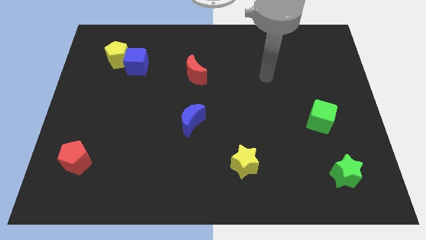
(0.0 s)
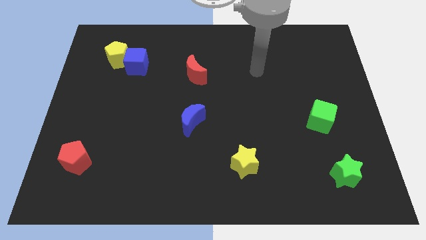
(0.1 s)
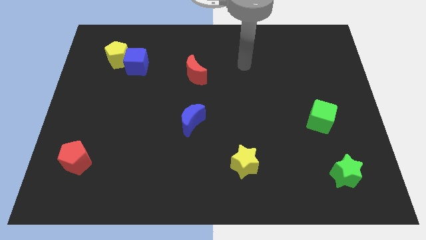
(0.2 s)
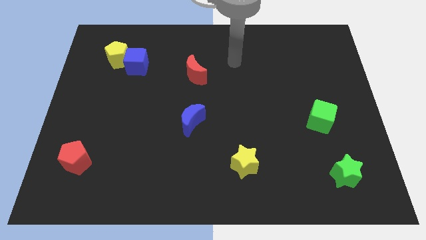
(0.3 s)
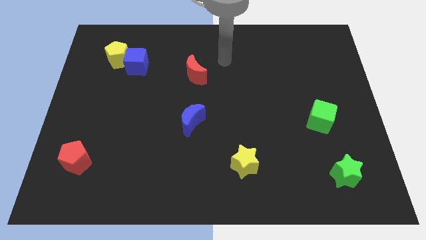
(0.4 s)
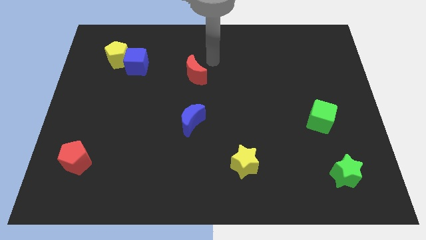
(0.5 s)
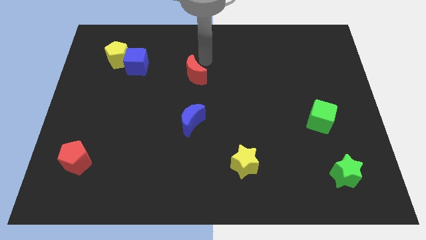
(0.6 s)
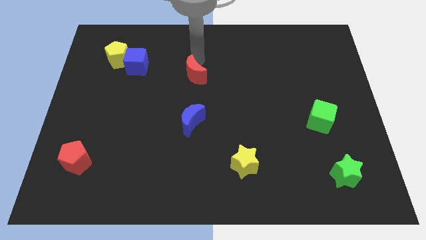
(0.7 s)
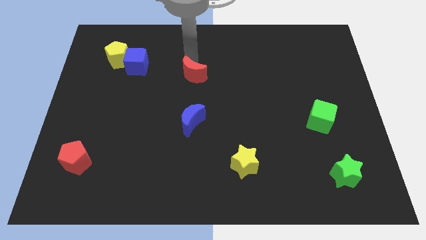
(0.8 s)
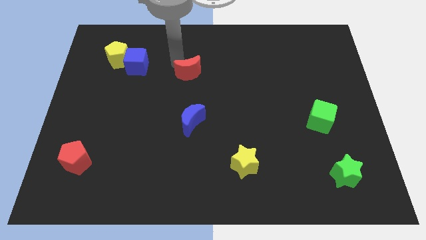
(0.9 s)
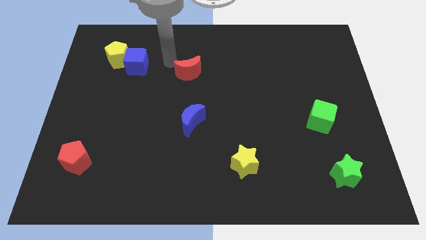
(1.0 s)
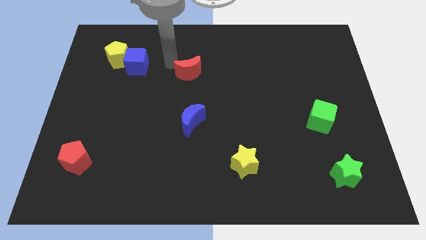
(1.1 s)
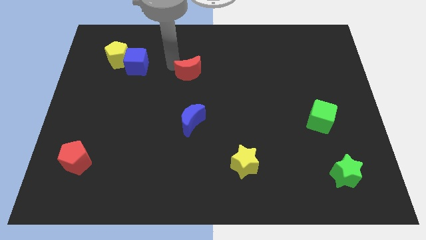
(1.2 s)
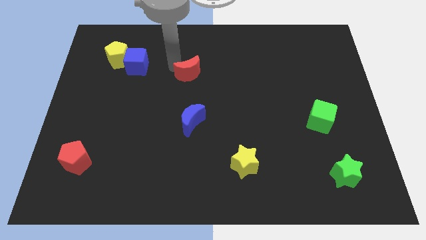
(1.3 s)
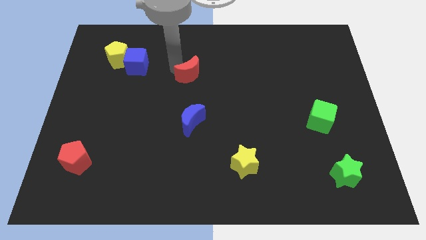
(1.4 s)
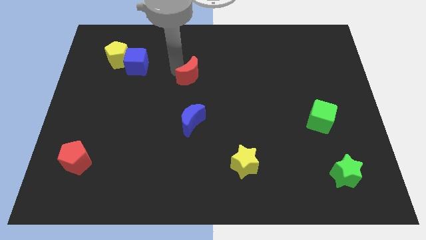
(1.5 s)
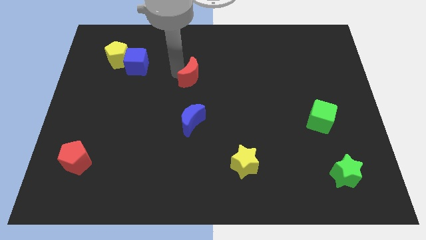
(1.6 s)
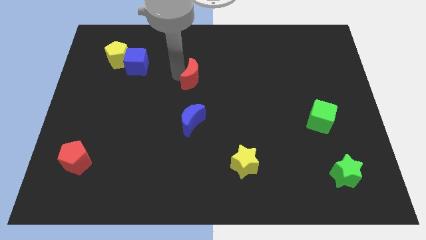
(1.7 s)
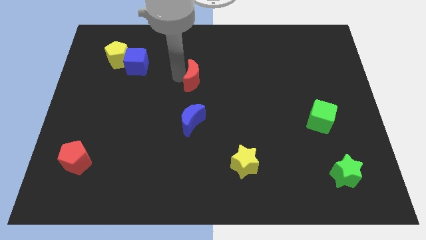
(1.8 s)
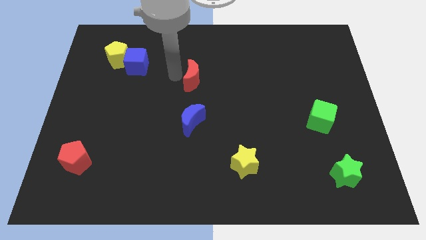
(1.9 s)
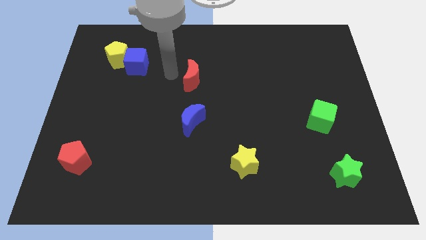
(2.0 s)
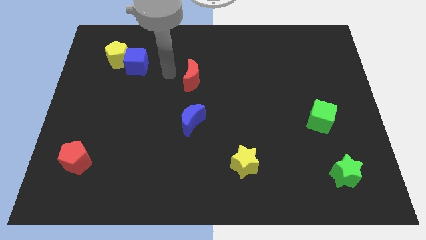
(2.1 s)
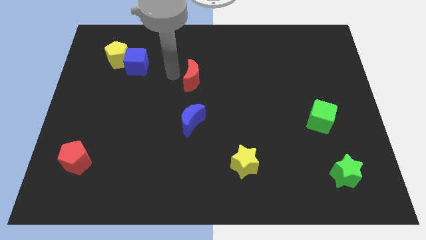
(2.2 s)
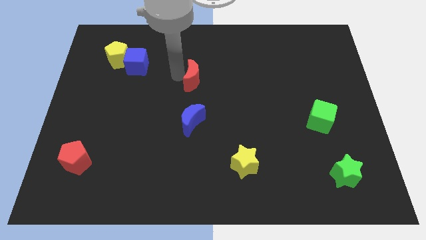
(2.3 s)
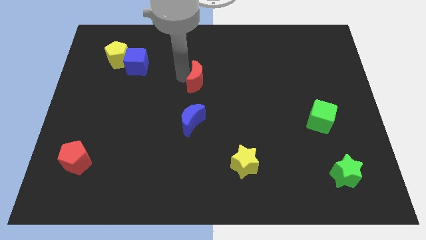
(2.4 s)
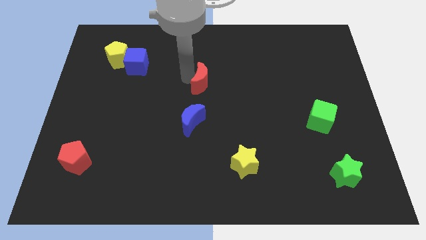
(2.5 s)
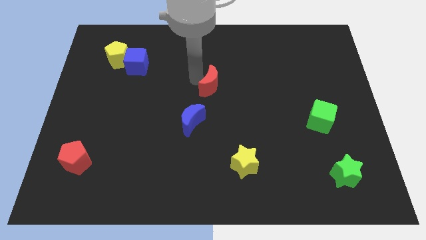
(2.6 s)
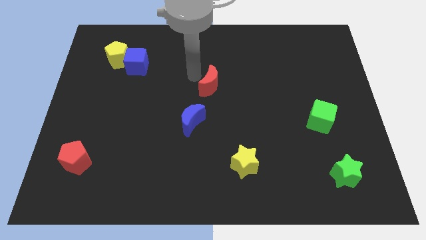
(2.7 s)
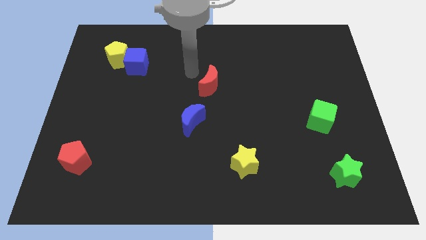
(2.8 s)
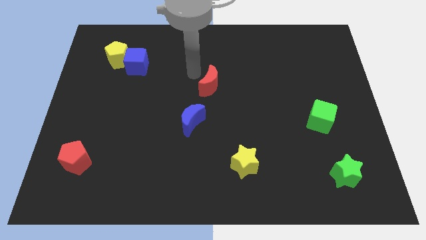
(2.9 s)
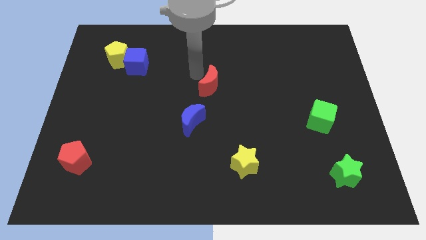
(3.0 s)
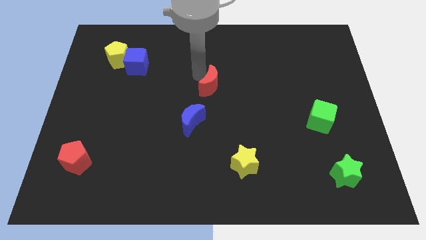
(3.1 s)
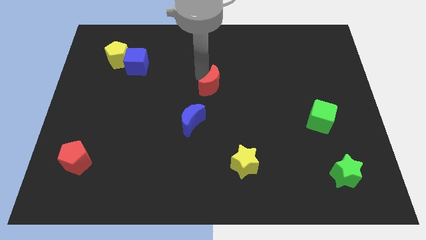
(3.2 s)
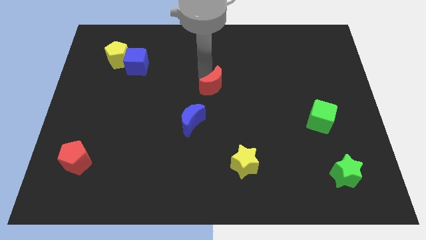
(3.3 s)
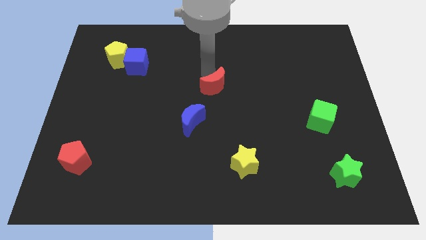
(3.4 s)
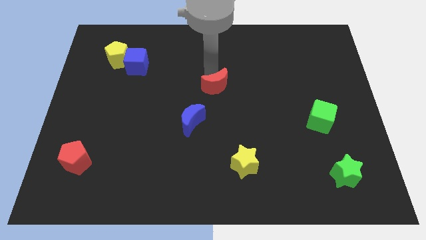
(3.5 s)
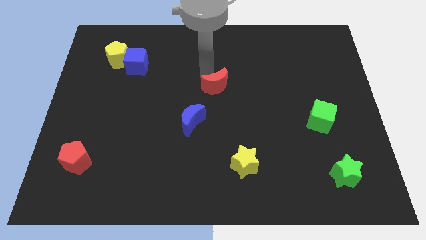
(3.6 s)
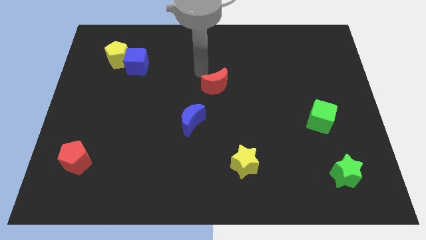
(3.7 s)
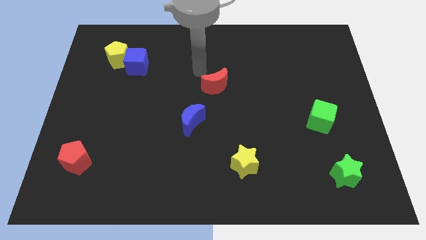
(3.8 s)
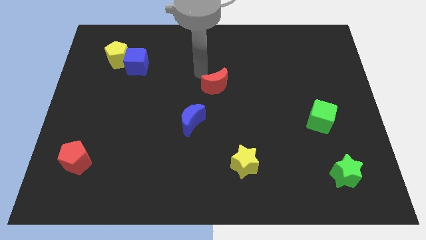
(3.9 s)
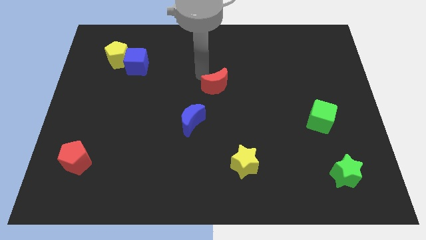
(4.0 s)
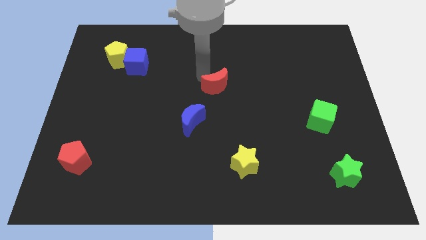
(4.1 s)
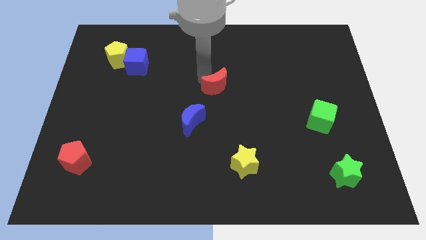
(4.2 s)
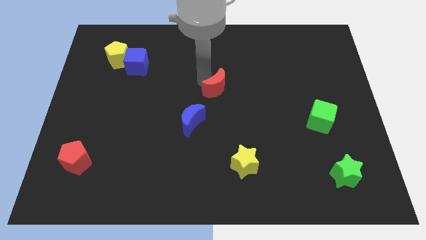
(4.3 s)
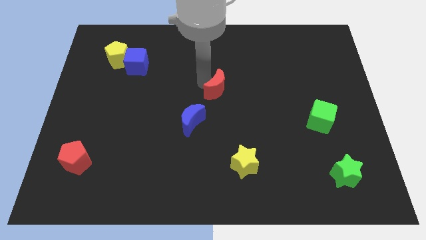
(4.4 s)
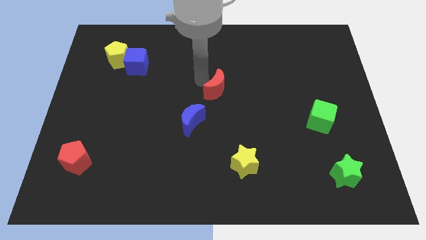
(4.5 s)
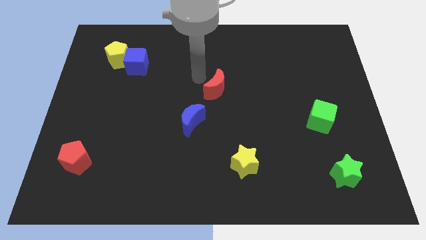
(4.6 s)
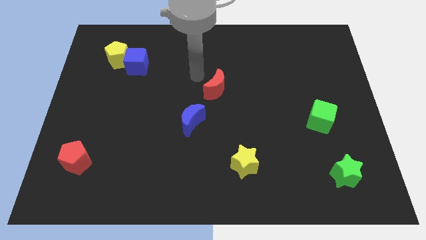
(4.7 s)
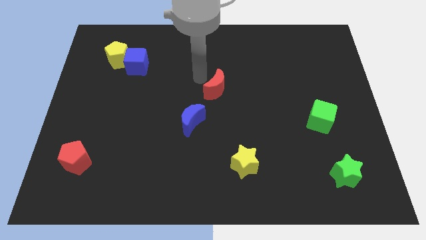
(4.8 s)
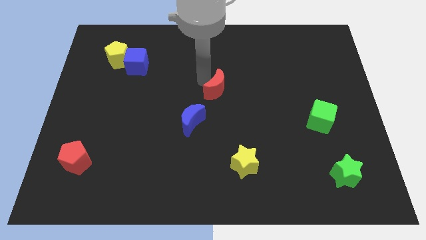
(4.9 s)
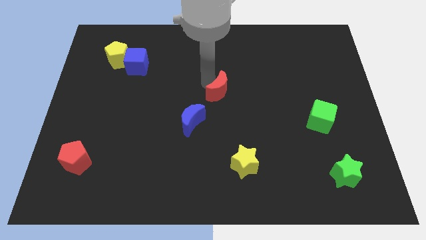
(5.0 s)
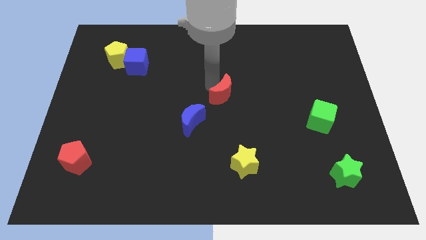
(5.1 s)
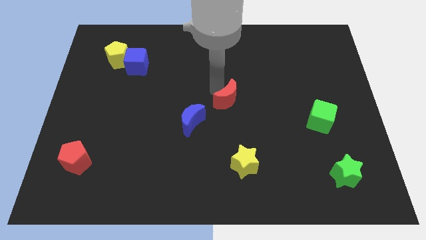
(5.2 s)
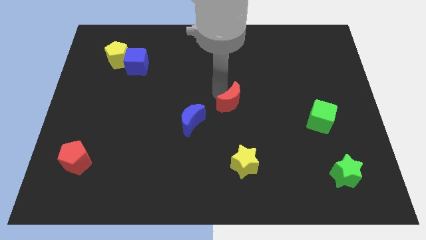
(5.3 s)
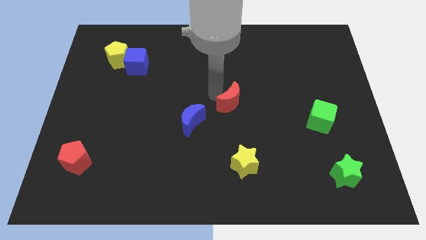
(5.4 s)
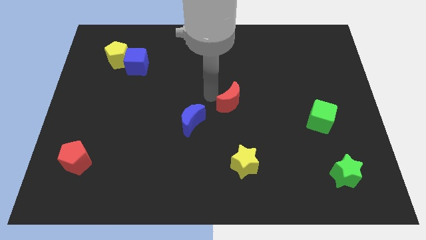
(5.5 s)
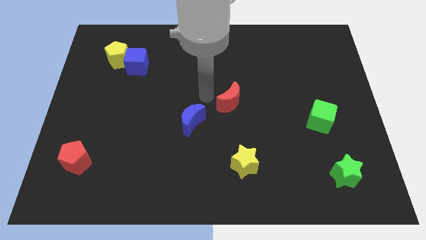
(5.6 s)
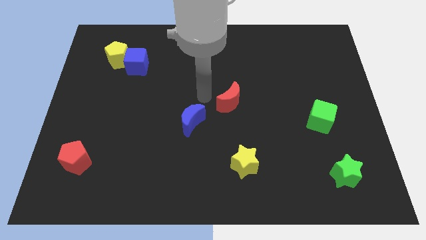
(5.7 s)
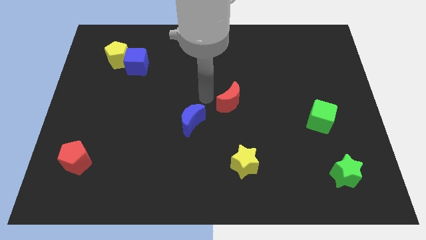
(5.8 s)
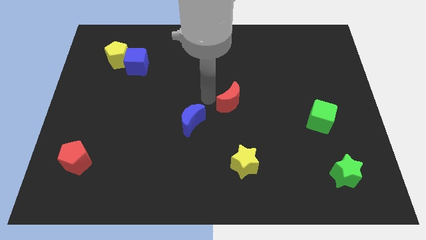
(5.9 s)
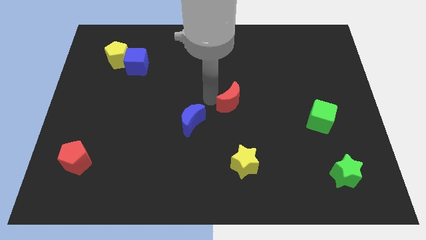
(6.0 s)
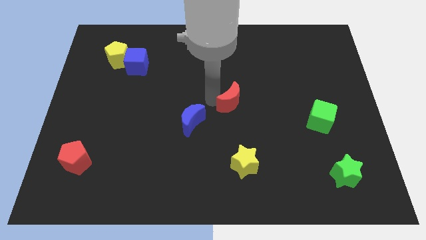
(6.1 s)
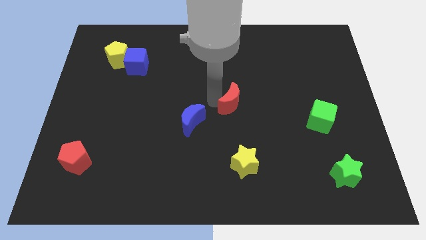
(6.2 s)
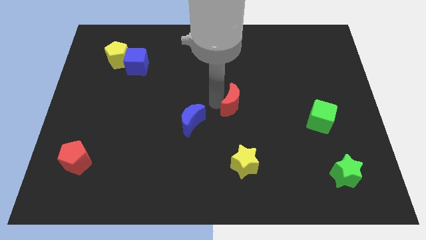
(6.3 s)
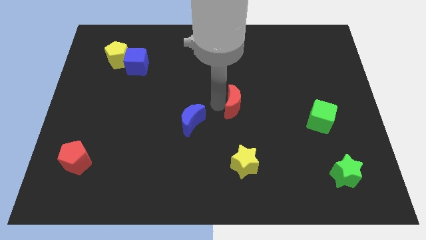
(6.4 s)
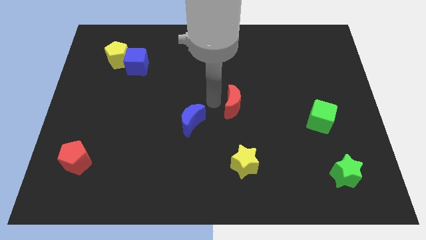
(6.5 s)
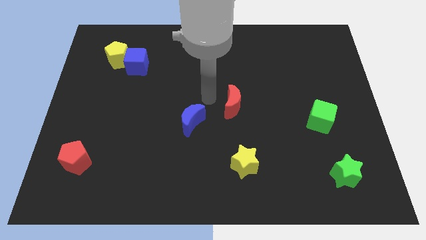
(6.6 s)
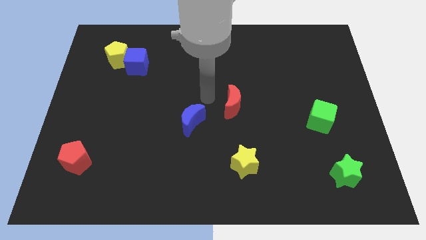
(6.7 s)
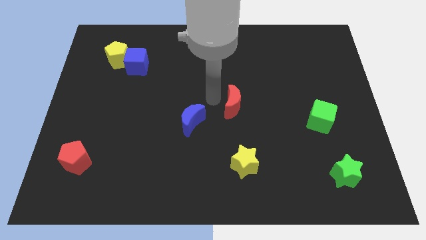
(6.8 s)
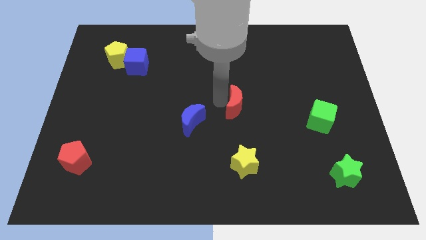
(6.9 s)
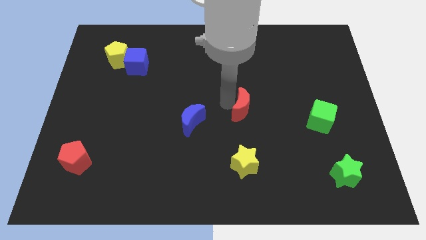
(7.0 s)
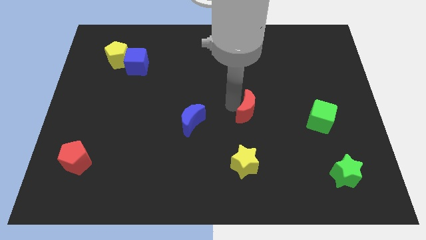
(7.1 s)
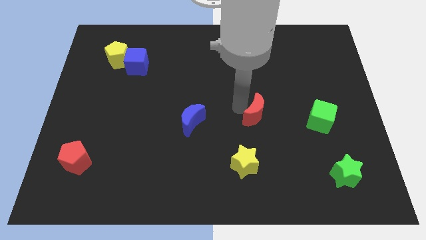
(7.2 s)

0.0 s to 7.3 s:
put the red moon to the left side of the green cube
